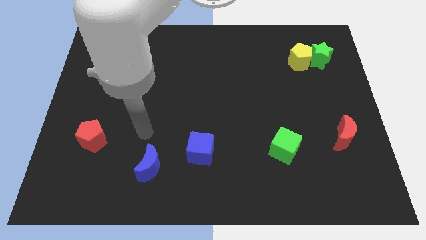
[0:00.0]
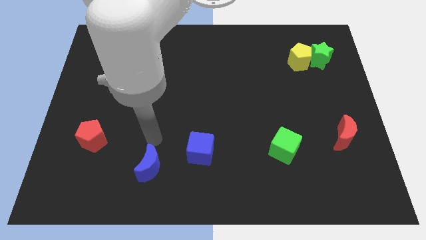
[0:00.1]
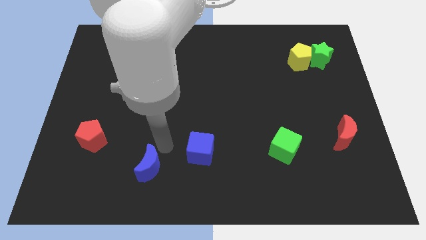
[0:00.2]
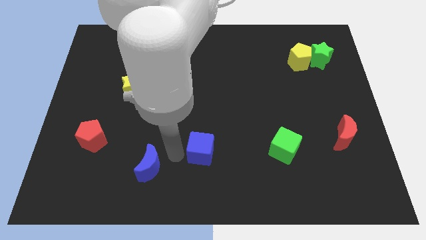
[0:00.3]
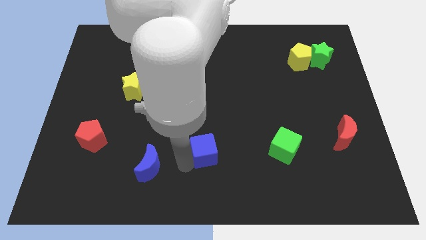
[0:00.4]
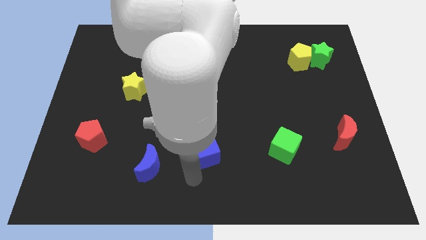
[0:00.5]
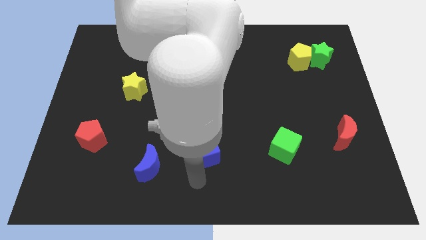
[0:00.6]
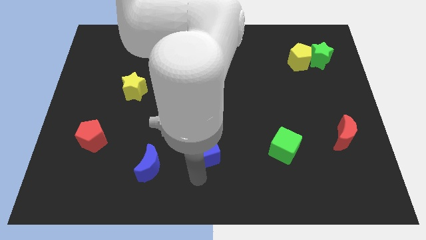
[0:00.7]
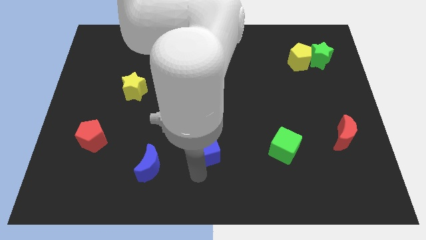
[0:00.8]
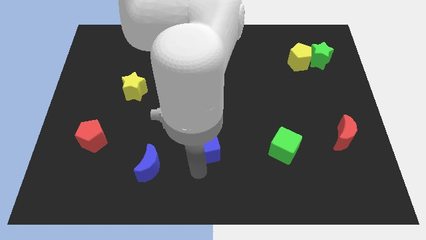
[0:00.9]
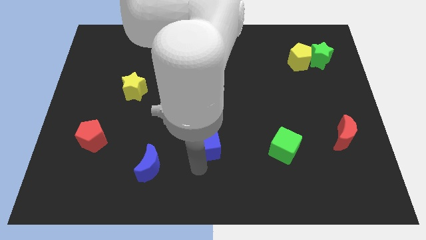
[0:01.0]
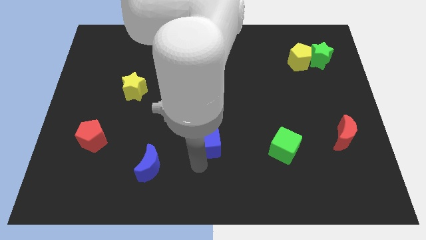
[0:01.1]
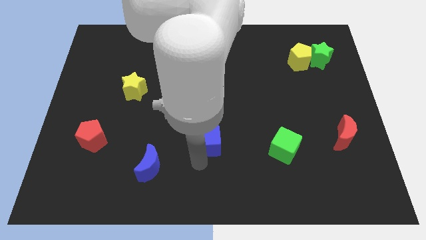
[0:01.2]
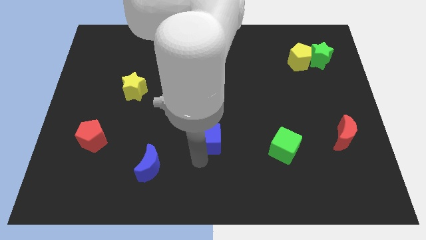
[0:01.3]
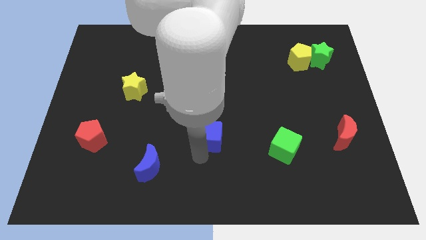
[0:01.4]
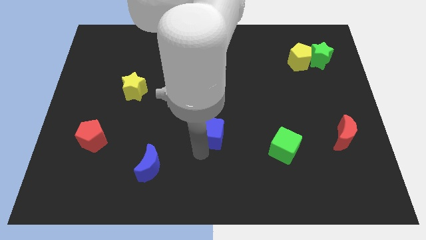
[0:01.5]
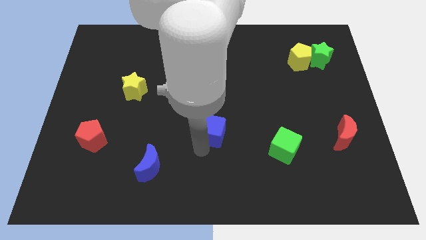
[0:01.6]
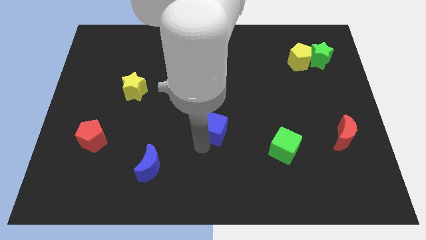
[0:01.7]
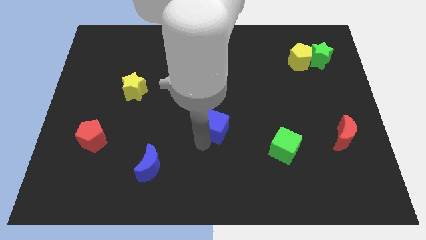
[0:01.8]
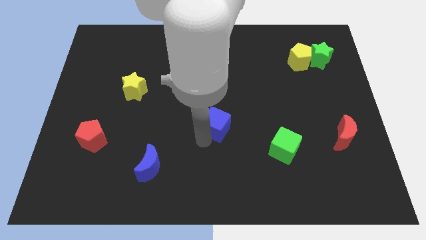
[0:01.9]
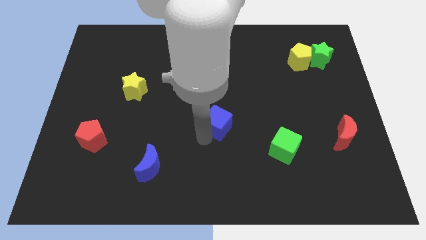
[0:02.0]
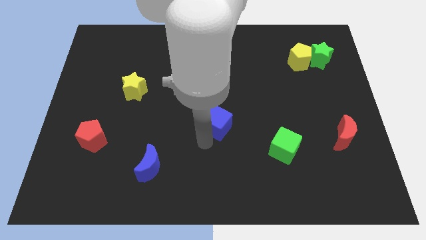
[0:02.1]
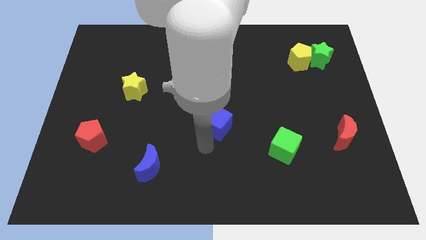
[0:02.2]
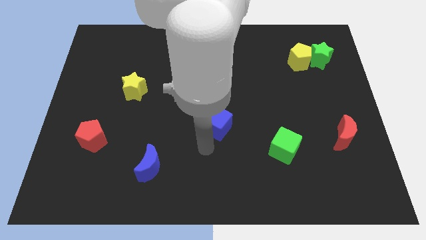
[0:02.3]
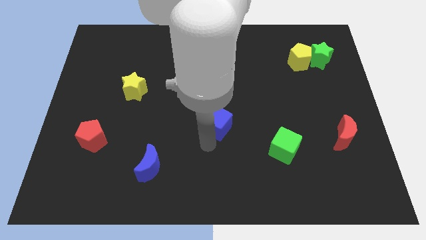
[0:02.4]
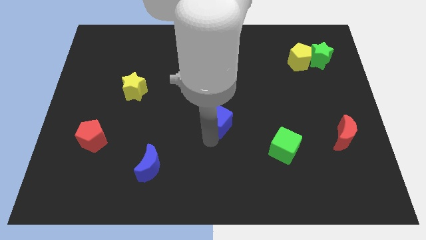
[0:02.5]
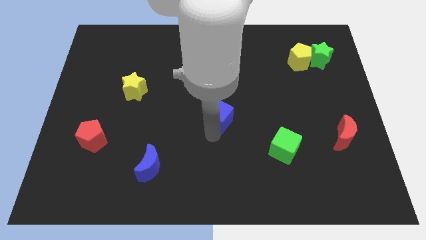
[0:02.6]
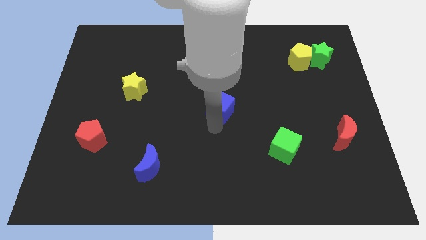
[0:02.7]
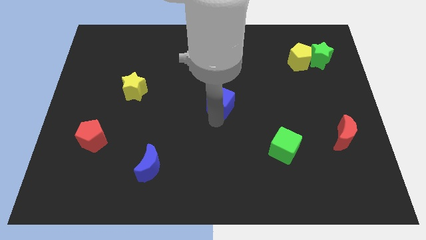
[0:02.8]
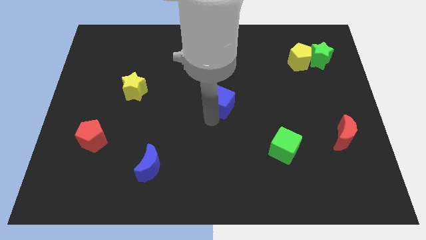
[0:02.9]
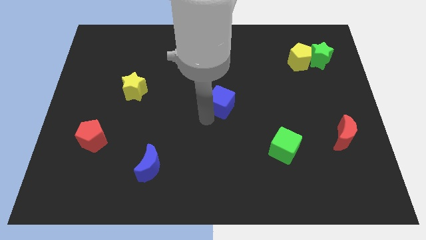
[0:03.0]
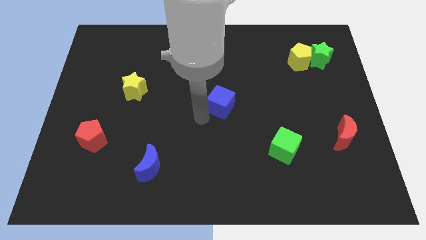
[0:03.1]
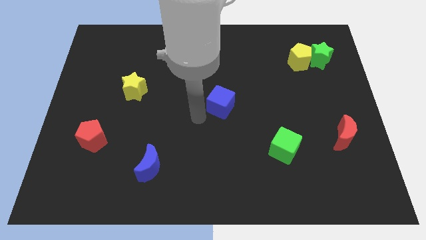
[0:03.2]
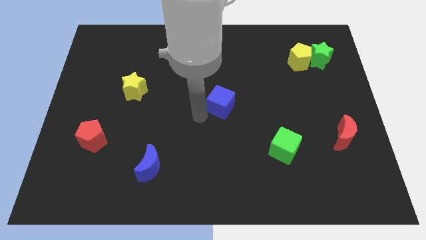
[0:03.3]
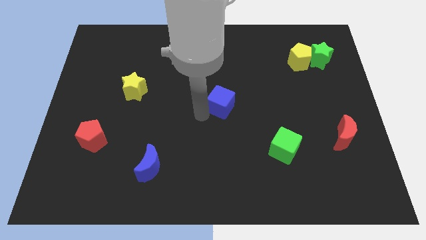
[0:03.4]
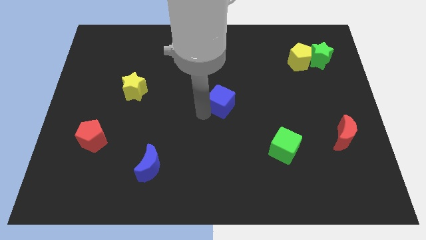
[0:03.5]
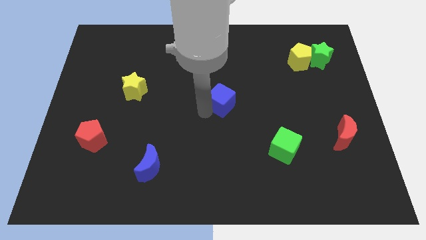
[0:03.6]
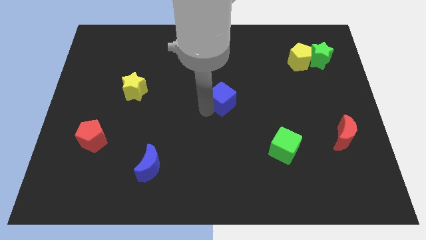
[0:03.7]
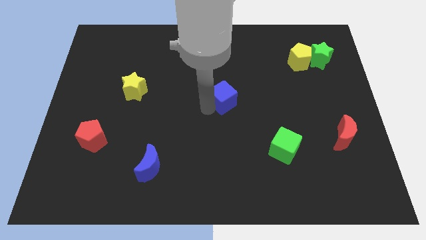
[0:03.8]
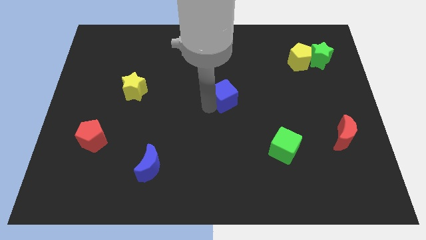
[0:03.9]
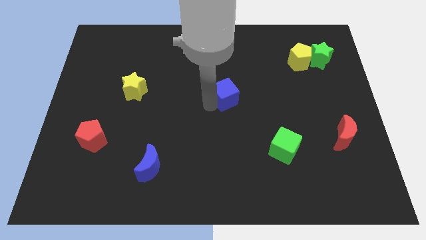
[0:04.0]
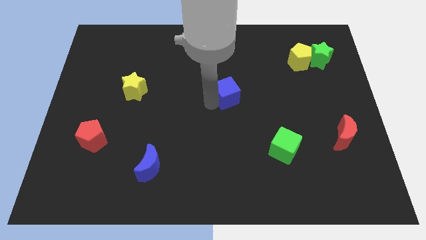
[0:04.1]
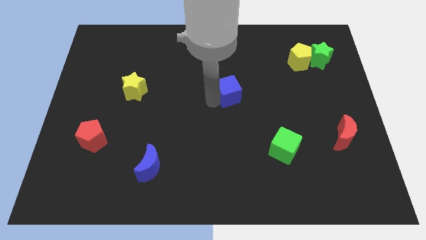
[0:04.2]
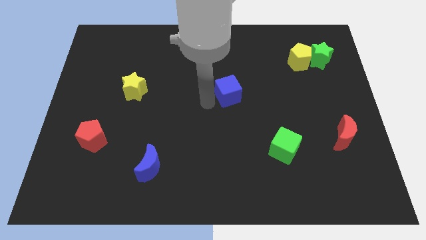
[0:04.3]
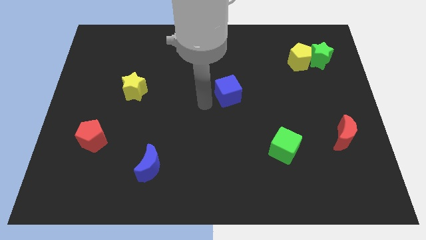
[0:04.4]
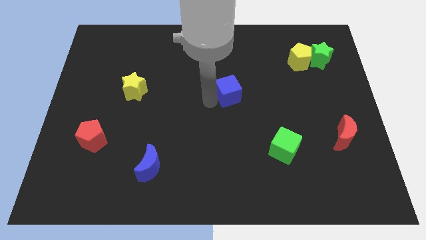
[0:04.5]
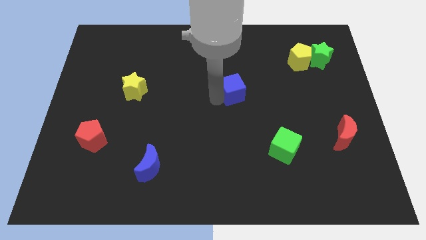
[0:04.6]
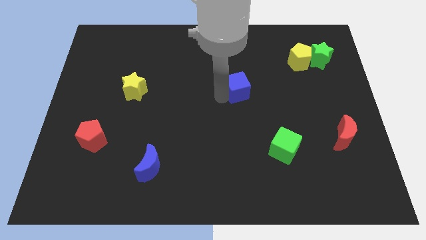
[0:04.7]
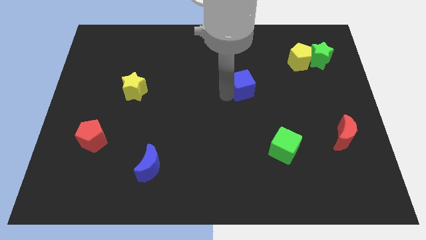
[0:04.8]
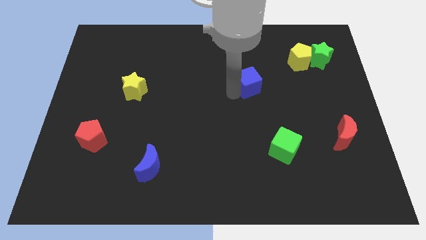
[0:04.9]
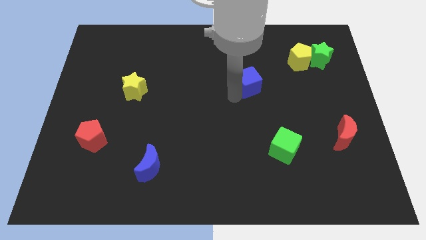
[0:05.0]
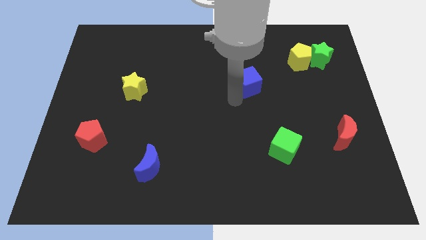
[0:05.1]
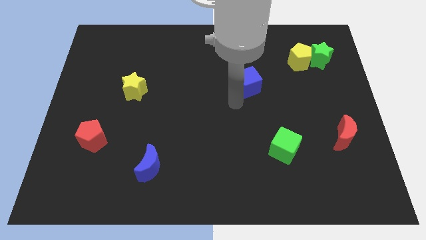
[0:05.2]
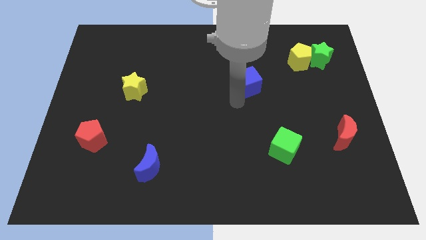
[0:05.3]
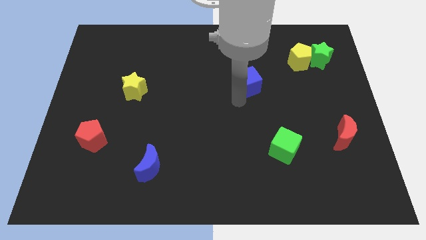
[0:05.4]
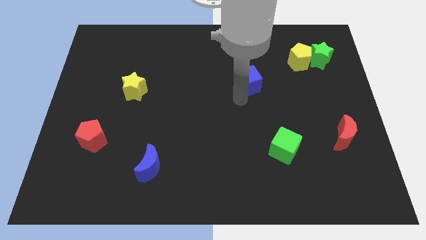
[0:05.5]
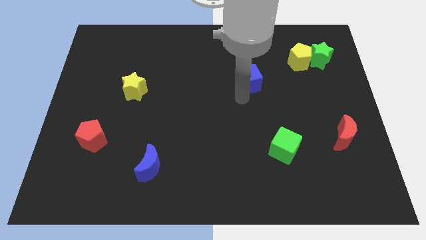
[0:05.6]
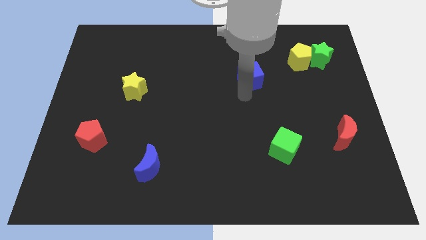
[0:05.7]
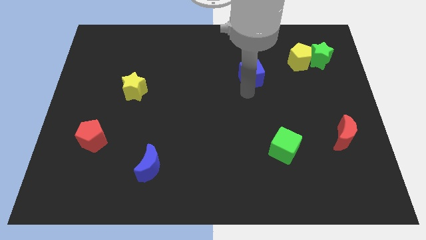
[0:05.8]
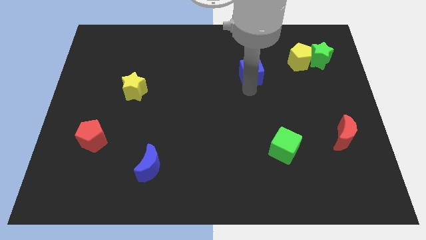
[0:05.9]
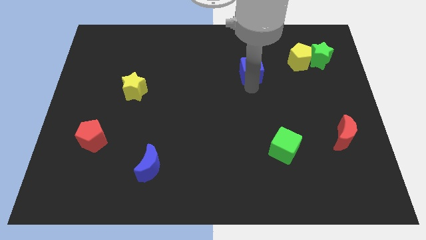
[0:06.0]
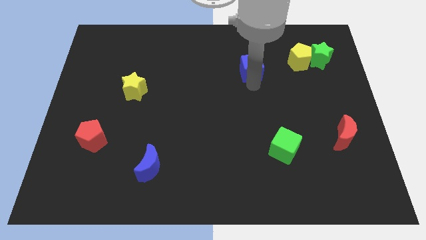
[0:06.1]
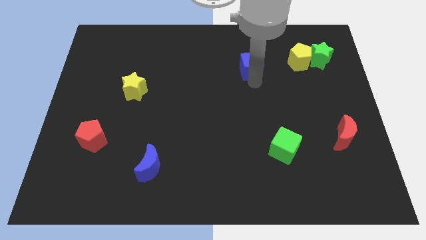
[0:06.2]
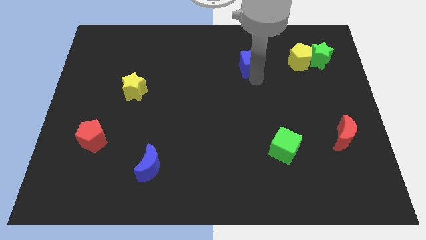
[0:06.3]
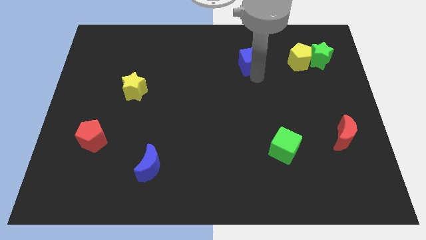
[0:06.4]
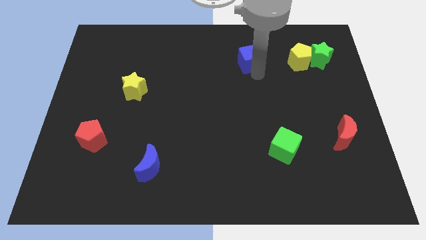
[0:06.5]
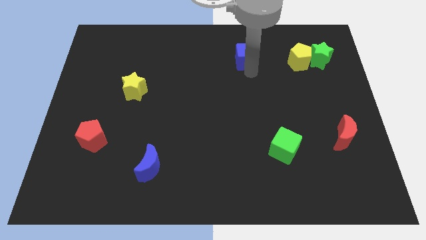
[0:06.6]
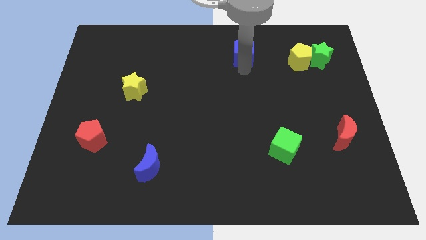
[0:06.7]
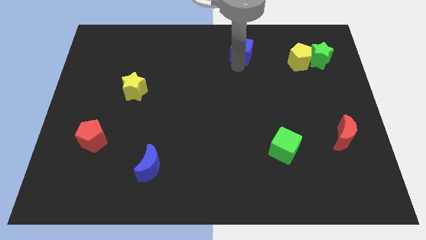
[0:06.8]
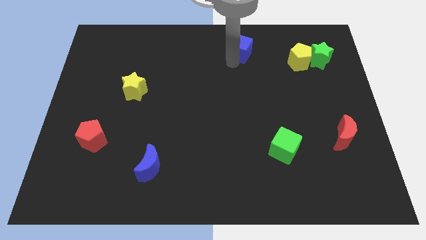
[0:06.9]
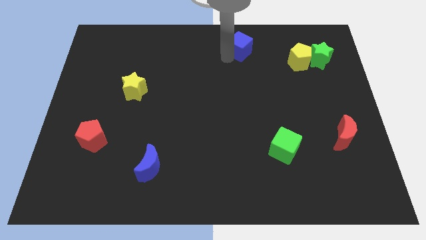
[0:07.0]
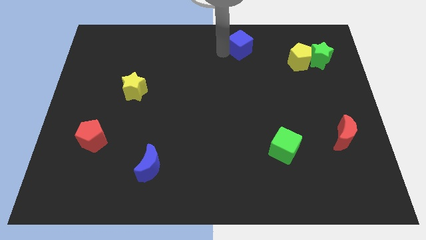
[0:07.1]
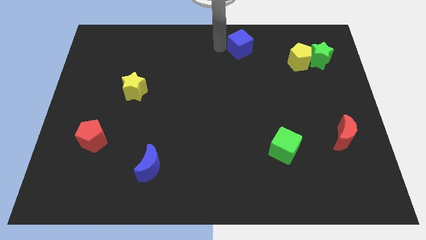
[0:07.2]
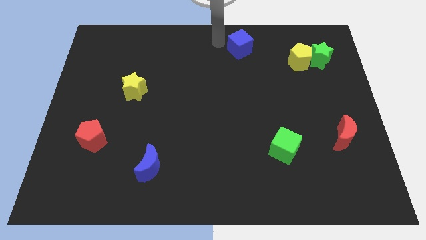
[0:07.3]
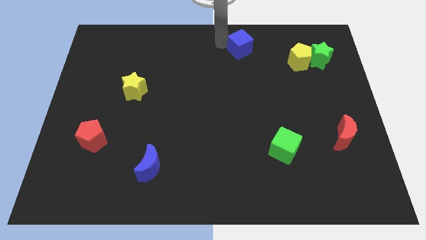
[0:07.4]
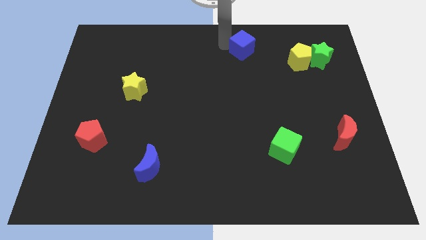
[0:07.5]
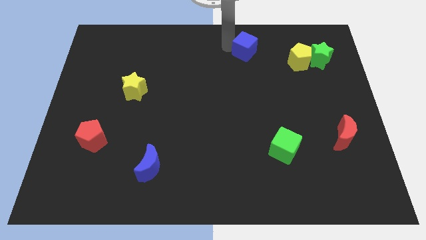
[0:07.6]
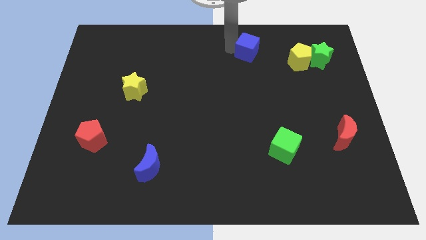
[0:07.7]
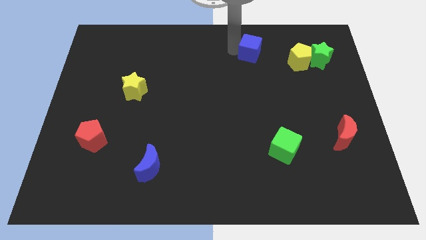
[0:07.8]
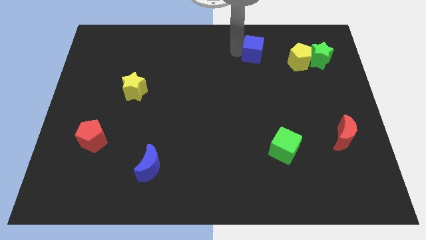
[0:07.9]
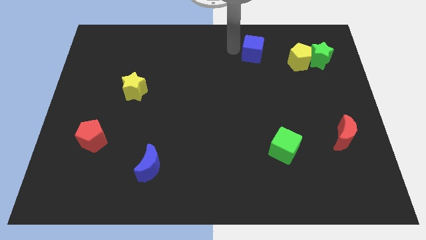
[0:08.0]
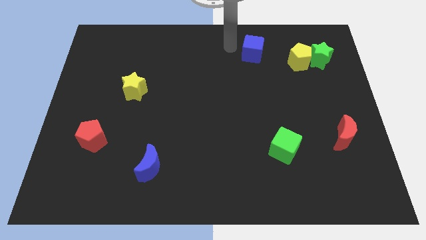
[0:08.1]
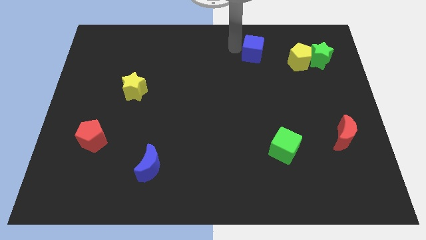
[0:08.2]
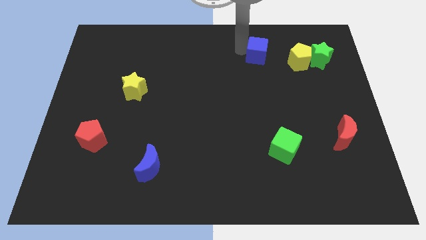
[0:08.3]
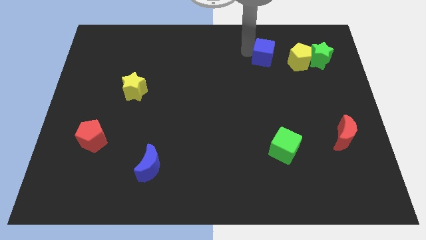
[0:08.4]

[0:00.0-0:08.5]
slide the blue cube to the left side of the green star
